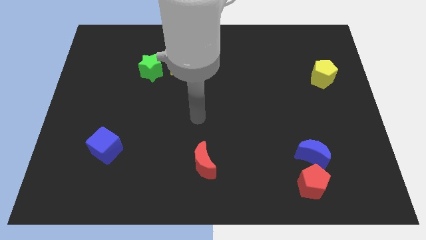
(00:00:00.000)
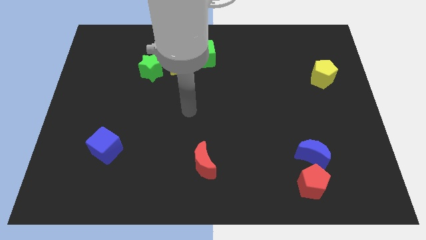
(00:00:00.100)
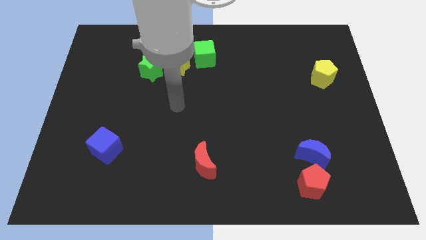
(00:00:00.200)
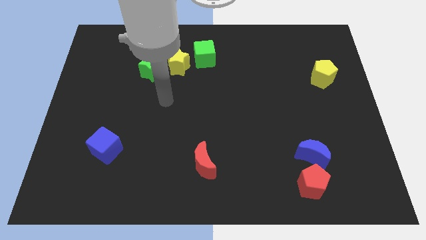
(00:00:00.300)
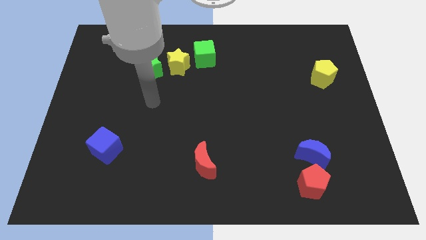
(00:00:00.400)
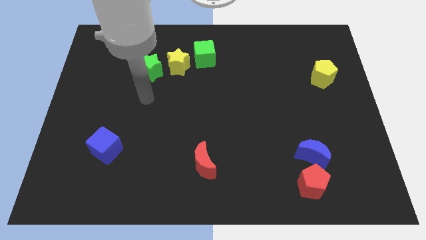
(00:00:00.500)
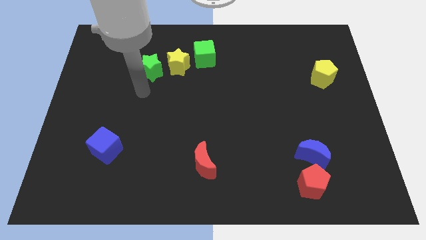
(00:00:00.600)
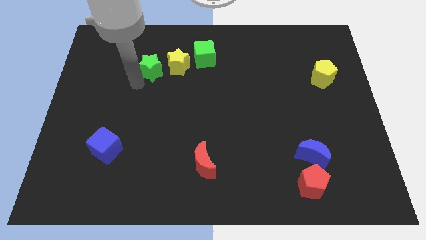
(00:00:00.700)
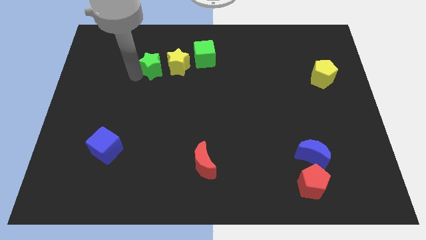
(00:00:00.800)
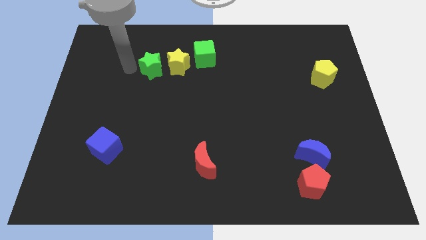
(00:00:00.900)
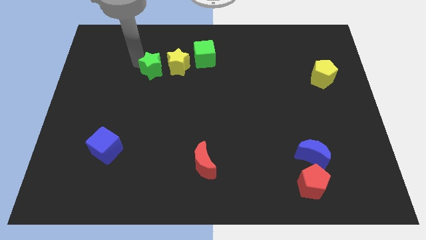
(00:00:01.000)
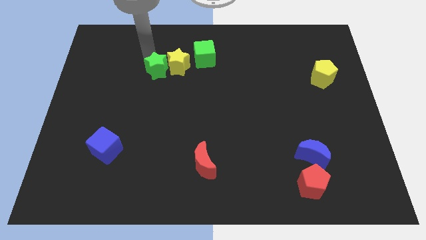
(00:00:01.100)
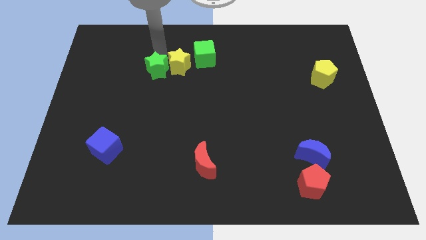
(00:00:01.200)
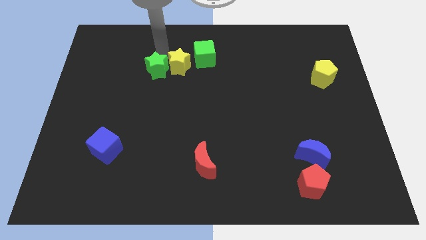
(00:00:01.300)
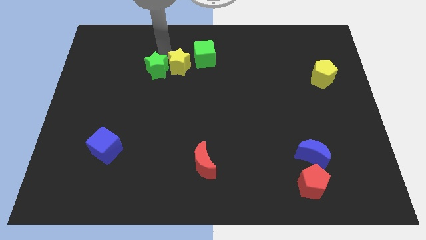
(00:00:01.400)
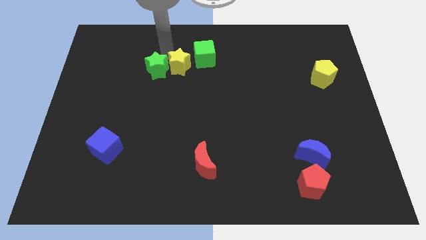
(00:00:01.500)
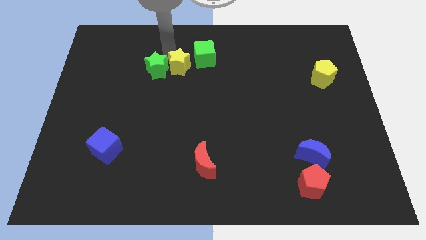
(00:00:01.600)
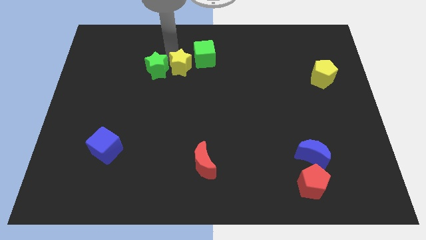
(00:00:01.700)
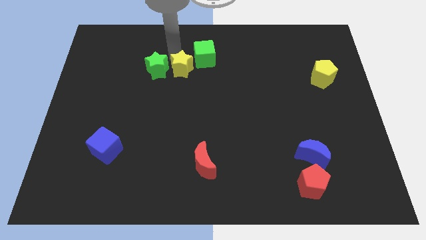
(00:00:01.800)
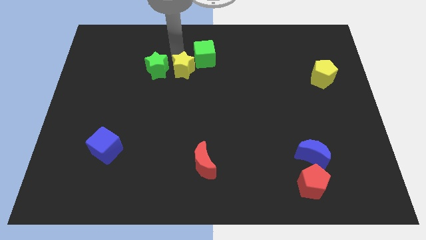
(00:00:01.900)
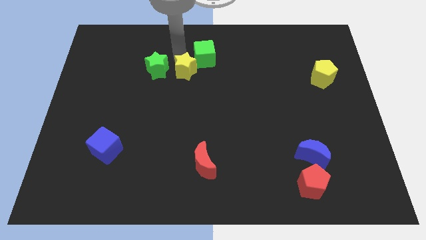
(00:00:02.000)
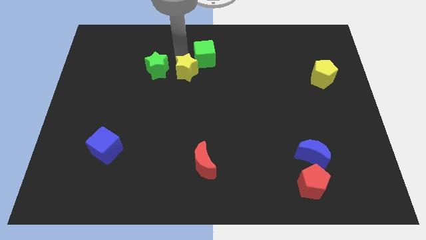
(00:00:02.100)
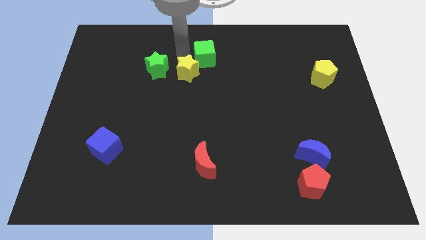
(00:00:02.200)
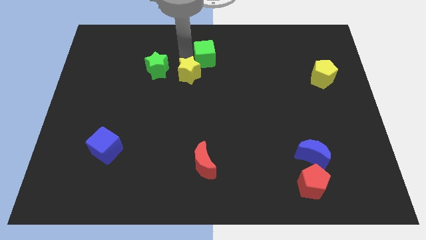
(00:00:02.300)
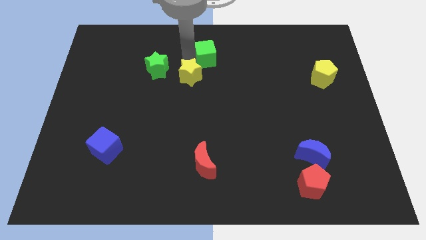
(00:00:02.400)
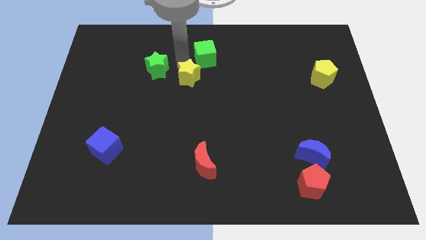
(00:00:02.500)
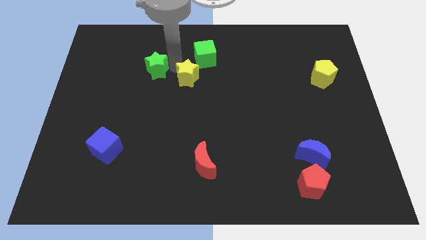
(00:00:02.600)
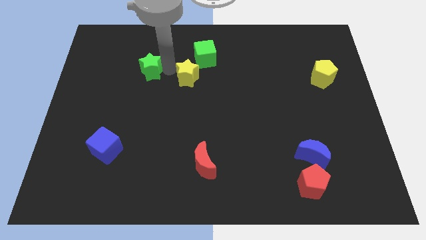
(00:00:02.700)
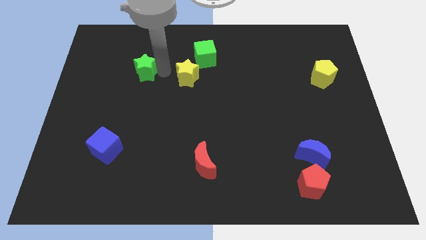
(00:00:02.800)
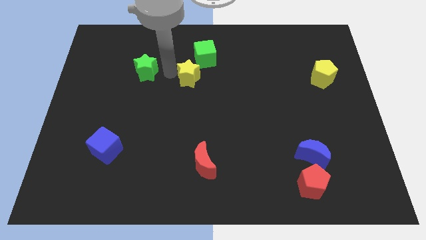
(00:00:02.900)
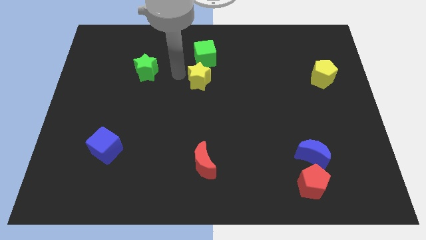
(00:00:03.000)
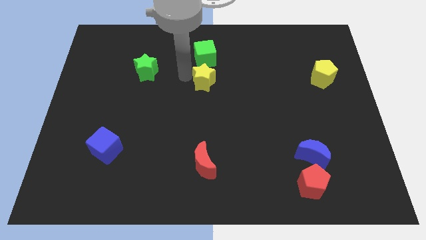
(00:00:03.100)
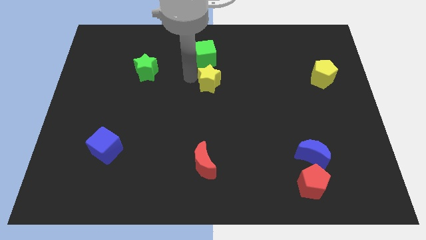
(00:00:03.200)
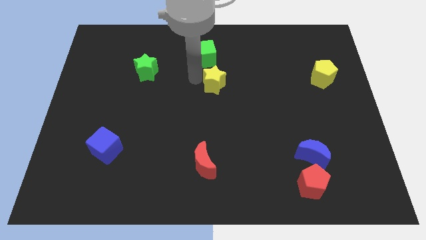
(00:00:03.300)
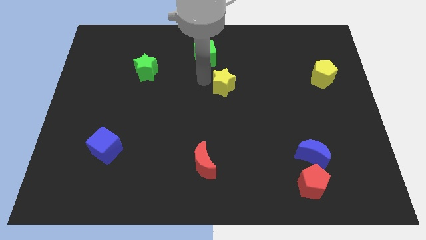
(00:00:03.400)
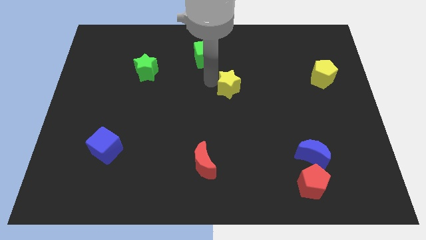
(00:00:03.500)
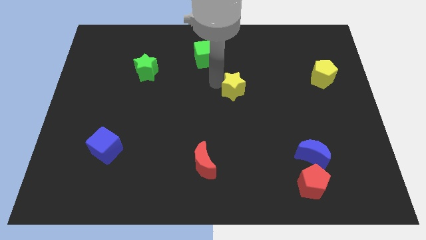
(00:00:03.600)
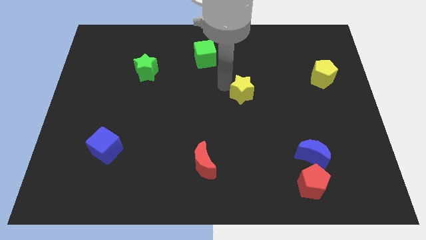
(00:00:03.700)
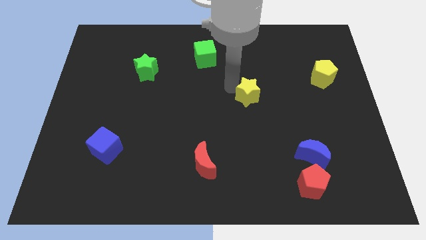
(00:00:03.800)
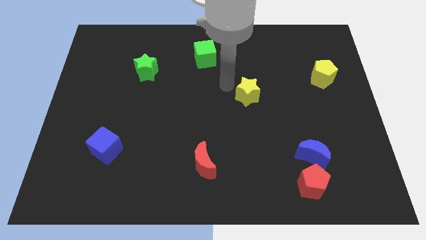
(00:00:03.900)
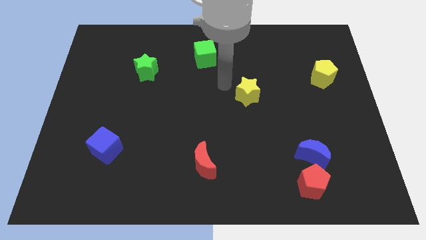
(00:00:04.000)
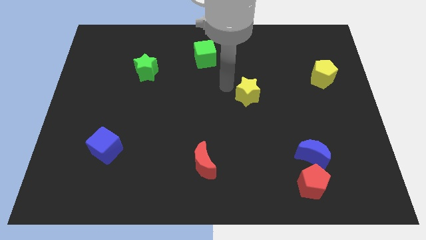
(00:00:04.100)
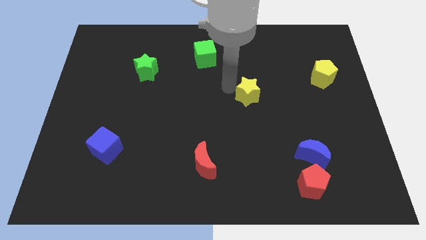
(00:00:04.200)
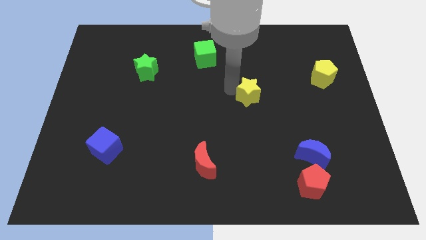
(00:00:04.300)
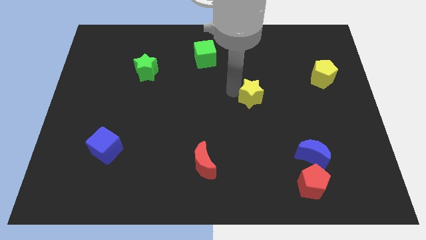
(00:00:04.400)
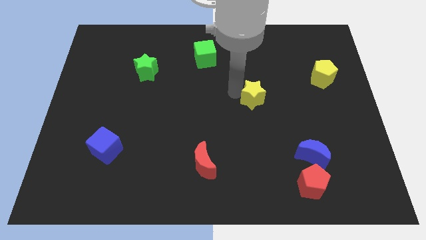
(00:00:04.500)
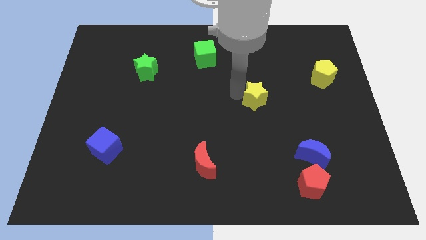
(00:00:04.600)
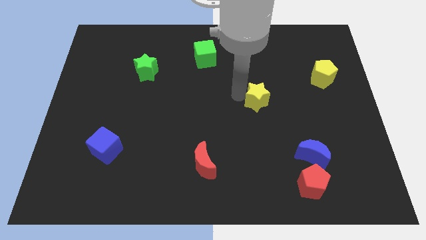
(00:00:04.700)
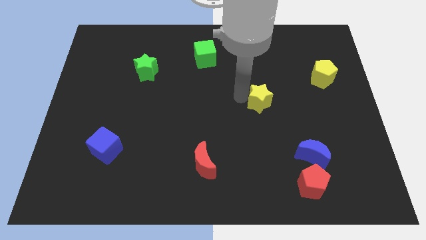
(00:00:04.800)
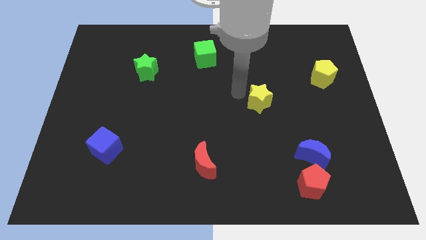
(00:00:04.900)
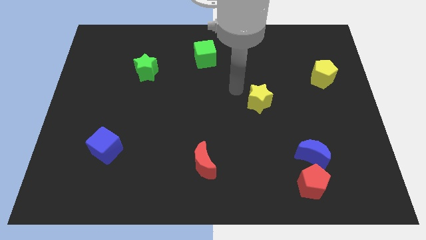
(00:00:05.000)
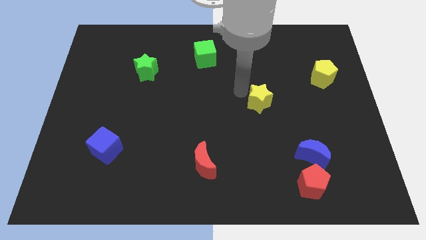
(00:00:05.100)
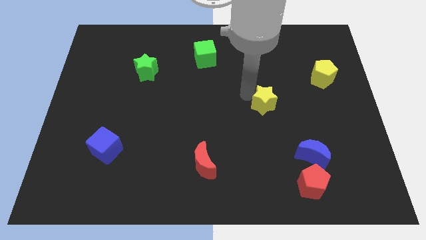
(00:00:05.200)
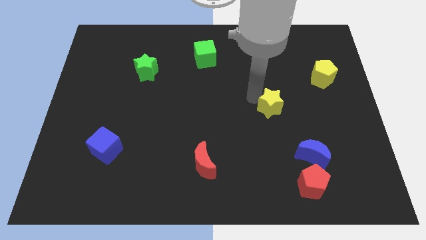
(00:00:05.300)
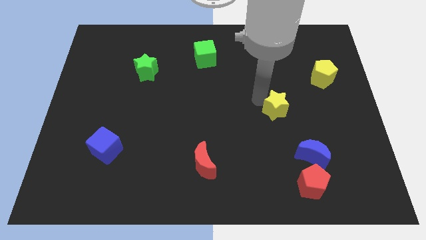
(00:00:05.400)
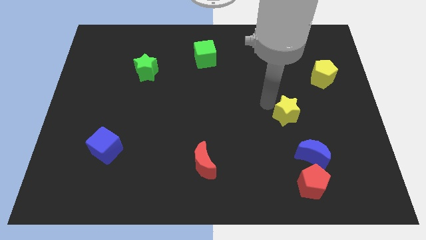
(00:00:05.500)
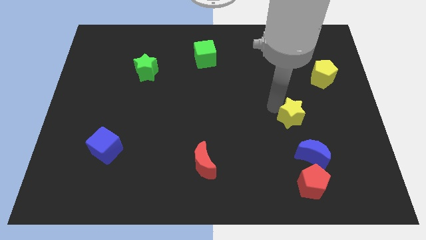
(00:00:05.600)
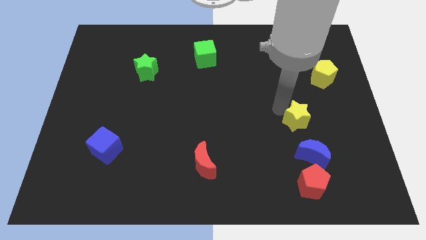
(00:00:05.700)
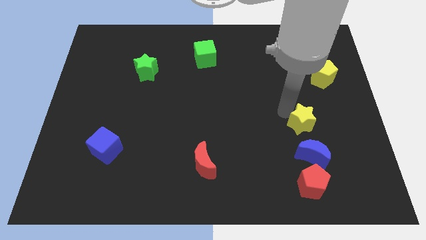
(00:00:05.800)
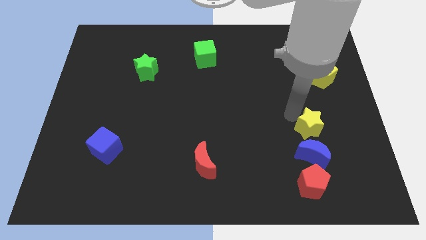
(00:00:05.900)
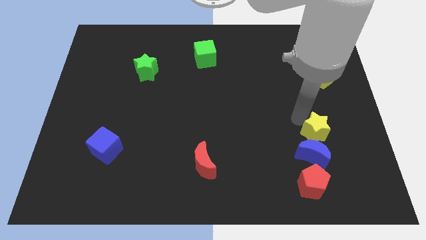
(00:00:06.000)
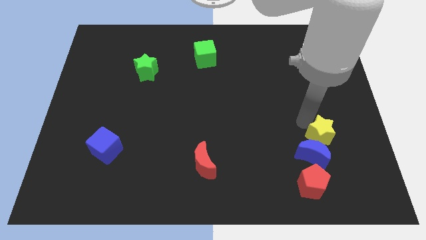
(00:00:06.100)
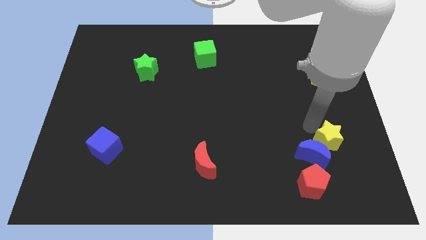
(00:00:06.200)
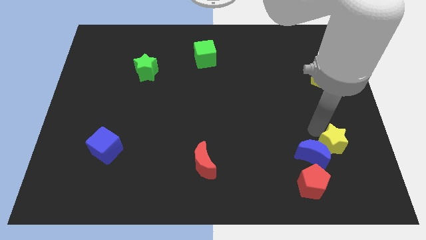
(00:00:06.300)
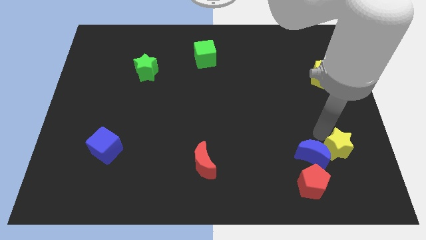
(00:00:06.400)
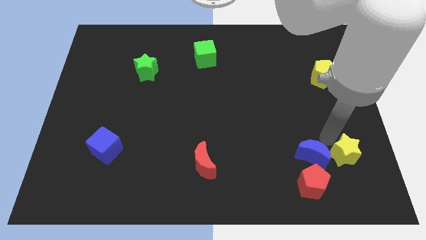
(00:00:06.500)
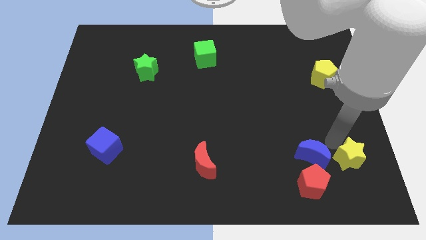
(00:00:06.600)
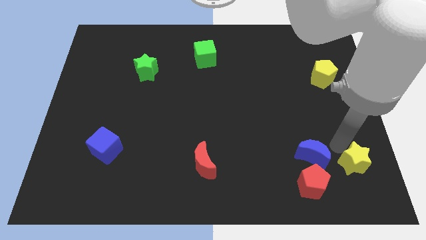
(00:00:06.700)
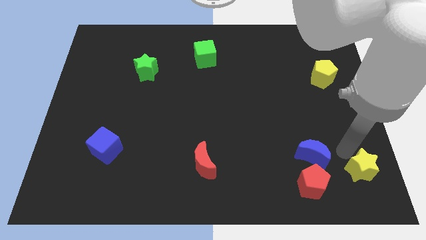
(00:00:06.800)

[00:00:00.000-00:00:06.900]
slide the yellow star to the bottom right

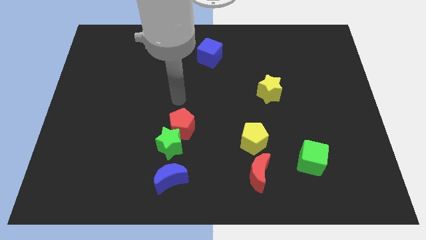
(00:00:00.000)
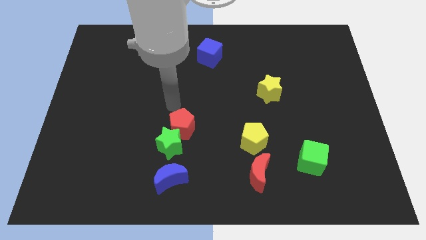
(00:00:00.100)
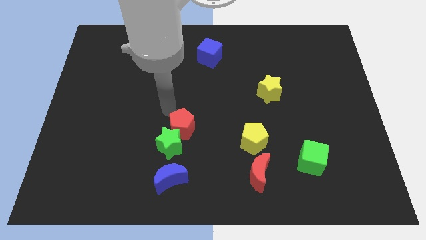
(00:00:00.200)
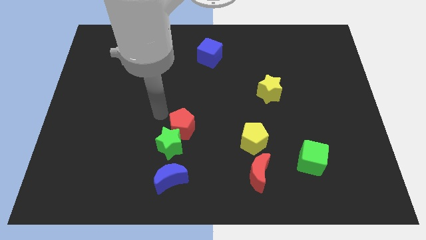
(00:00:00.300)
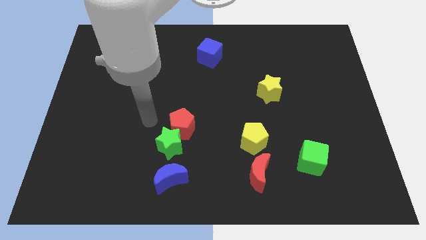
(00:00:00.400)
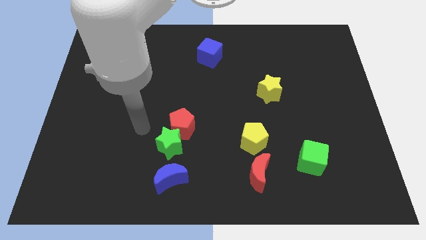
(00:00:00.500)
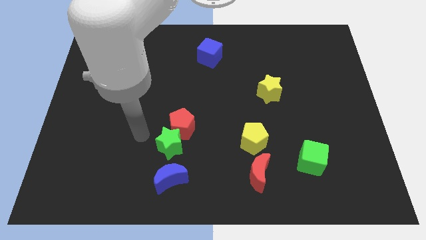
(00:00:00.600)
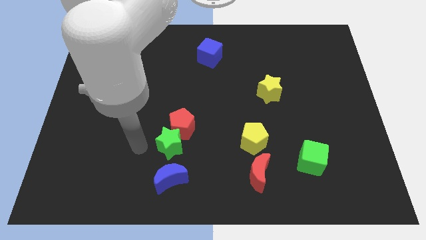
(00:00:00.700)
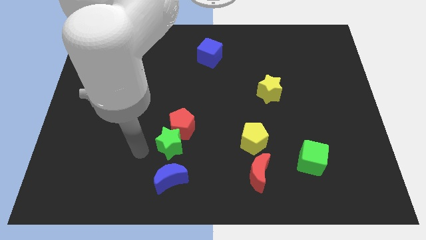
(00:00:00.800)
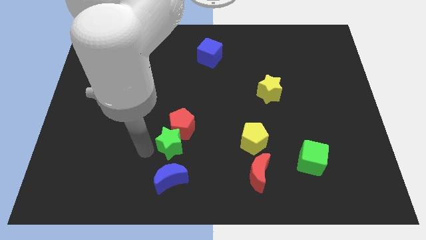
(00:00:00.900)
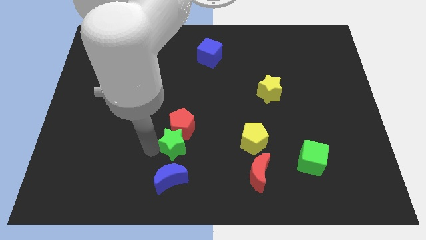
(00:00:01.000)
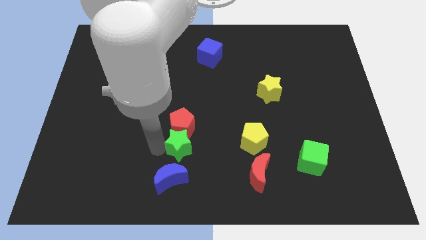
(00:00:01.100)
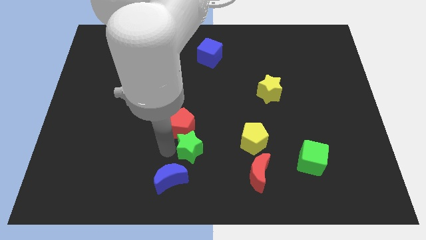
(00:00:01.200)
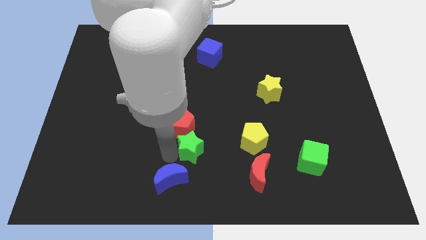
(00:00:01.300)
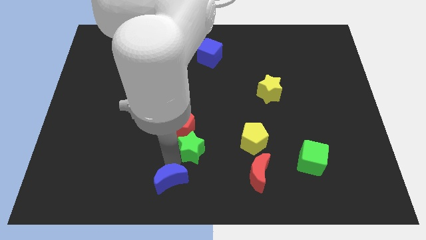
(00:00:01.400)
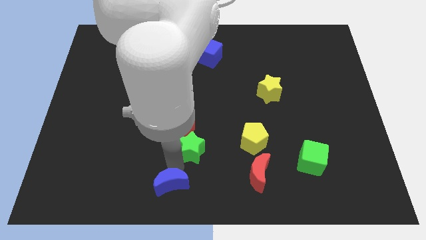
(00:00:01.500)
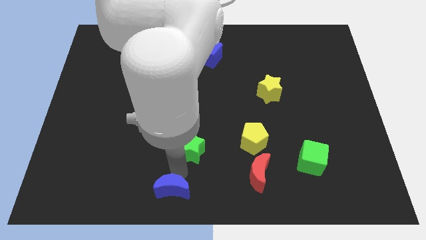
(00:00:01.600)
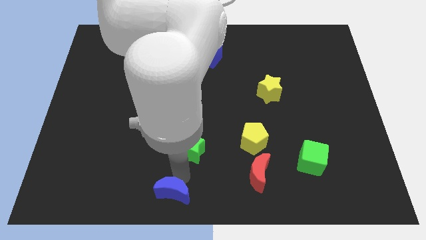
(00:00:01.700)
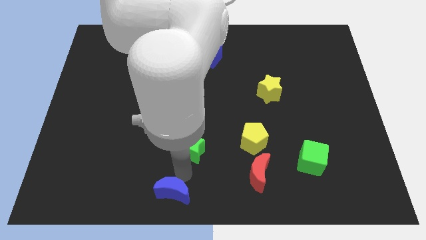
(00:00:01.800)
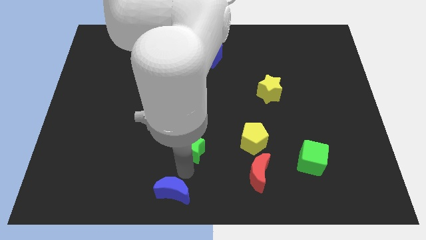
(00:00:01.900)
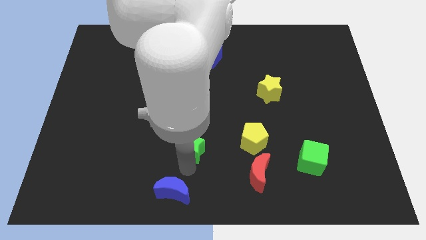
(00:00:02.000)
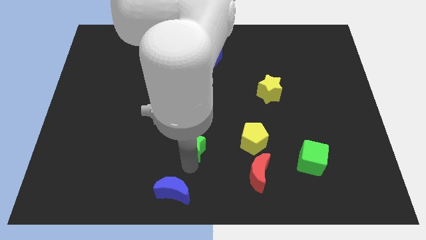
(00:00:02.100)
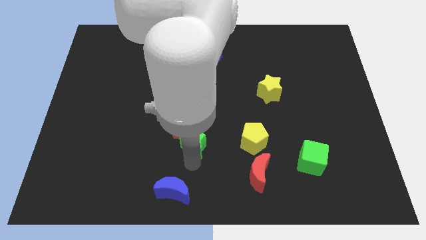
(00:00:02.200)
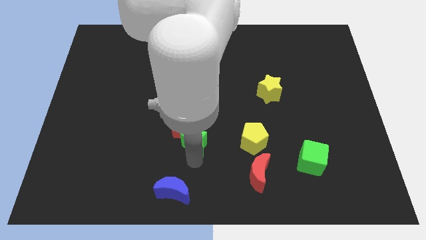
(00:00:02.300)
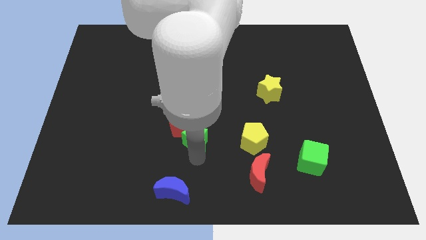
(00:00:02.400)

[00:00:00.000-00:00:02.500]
put the green star to the center
